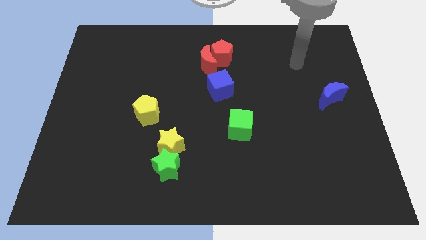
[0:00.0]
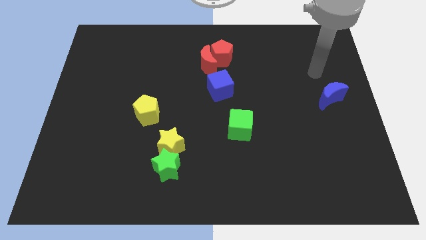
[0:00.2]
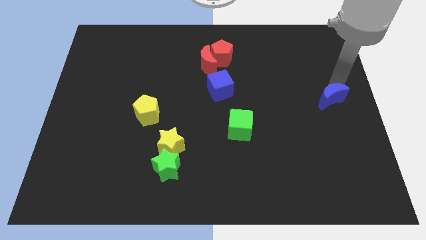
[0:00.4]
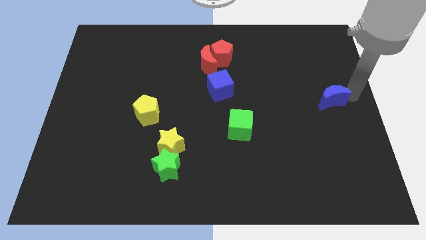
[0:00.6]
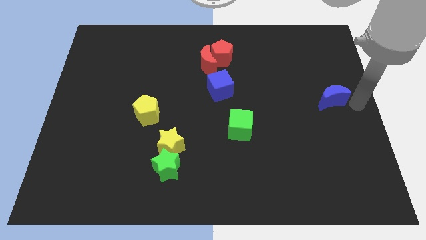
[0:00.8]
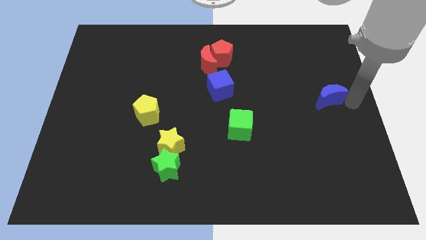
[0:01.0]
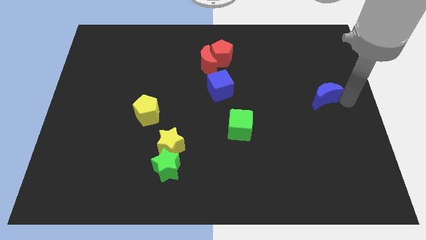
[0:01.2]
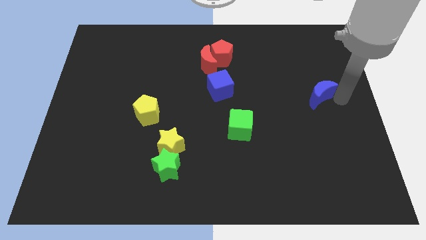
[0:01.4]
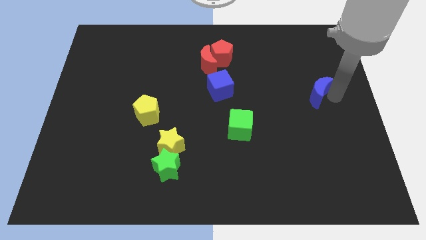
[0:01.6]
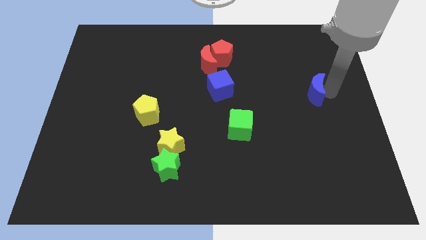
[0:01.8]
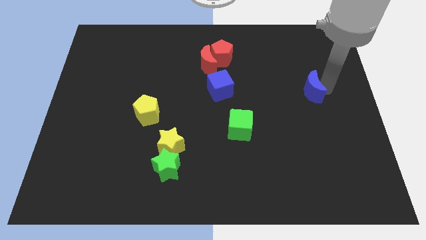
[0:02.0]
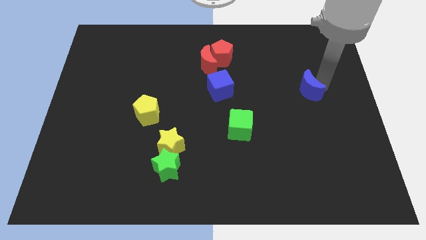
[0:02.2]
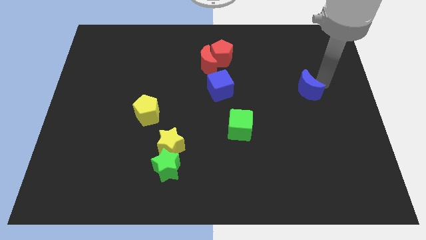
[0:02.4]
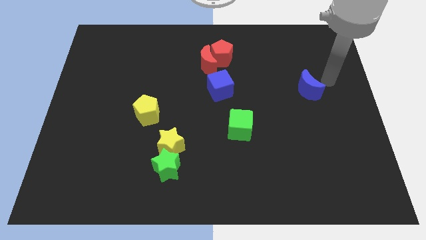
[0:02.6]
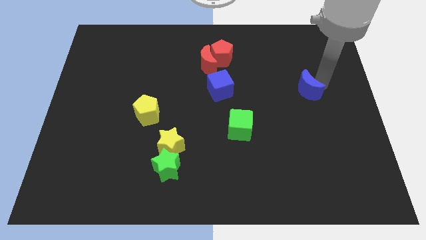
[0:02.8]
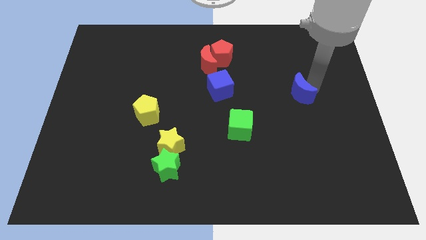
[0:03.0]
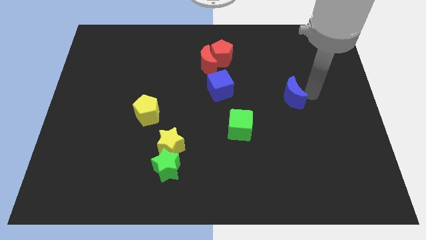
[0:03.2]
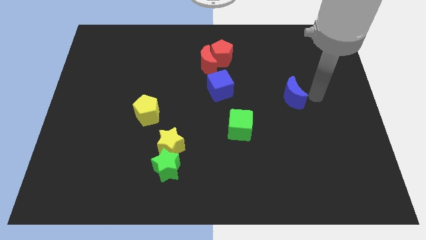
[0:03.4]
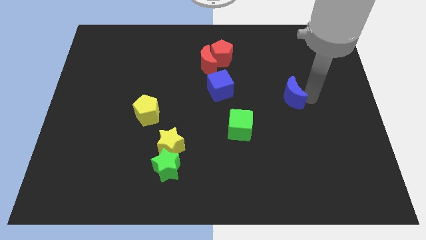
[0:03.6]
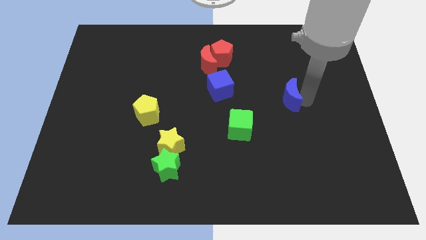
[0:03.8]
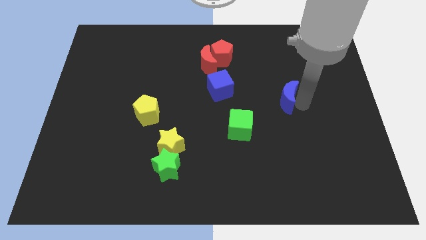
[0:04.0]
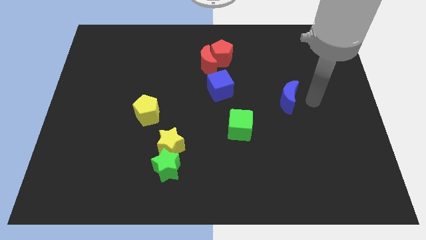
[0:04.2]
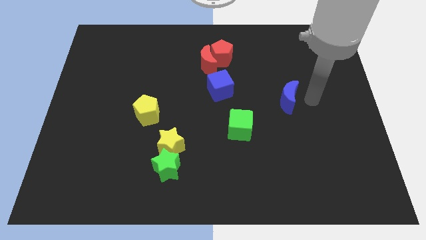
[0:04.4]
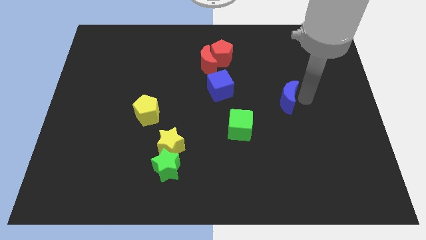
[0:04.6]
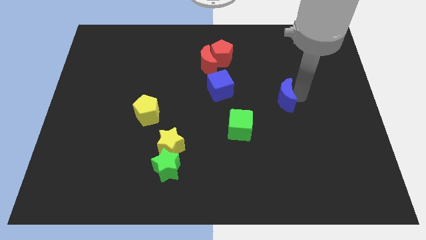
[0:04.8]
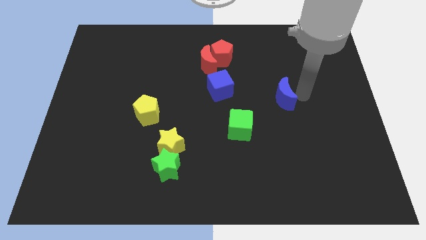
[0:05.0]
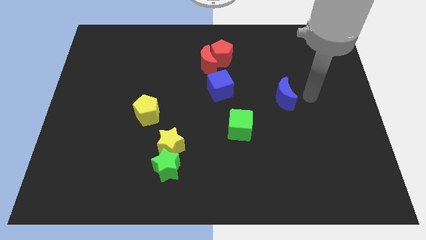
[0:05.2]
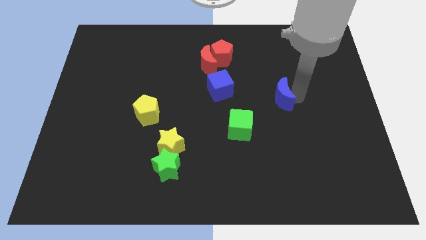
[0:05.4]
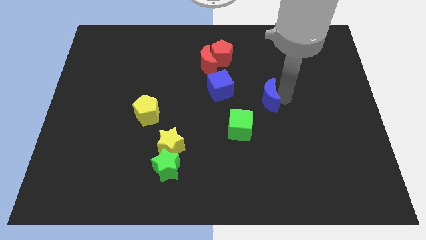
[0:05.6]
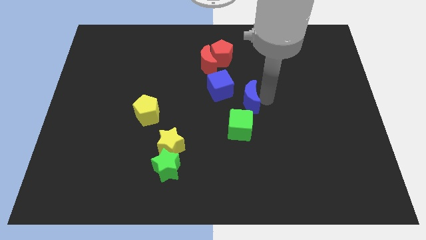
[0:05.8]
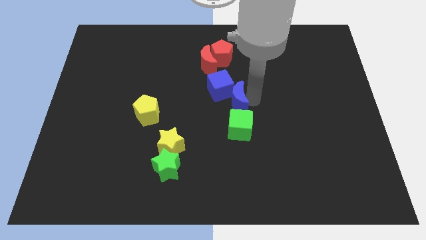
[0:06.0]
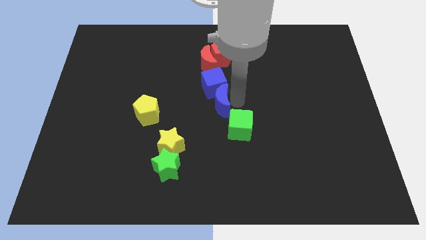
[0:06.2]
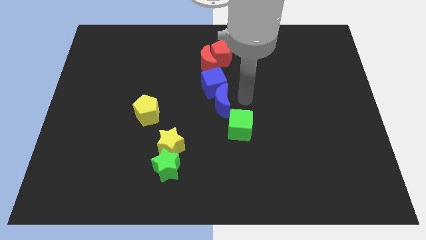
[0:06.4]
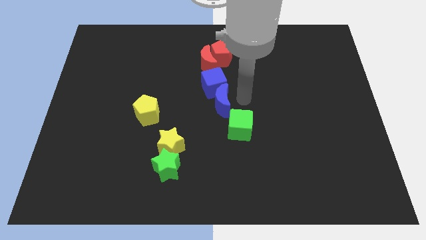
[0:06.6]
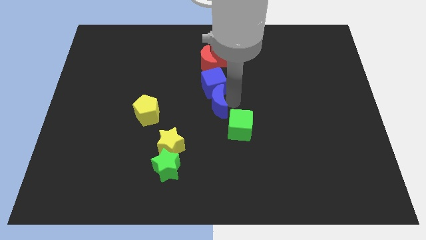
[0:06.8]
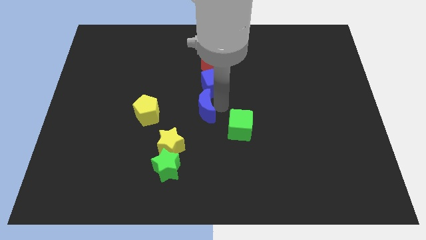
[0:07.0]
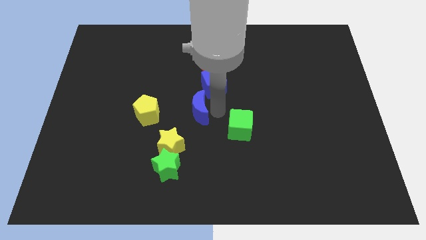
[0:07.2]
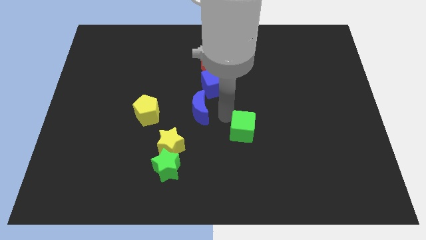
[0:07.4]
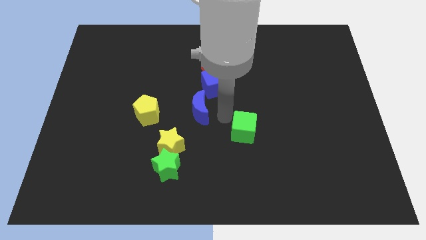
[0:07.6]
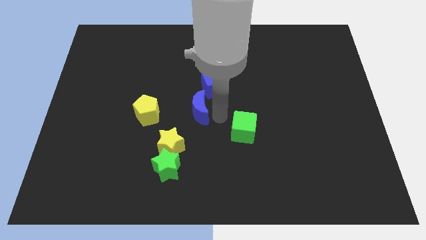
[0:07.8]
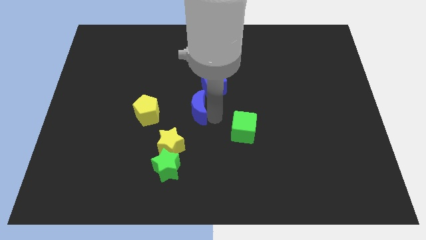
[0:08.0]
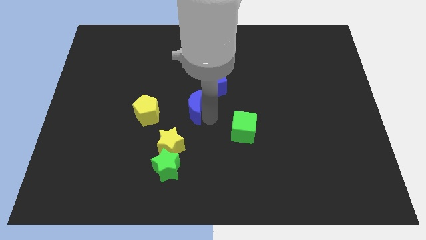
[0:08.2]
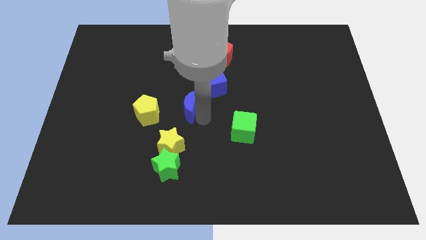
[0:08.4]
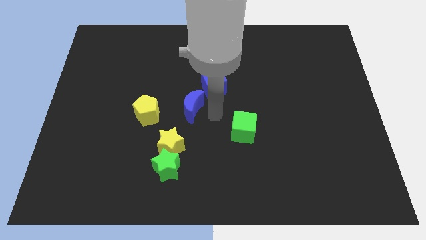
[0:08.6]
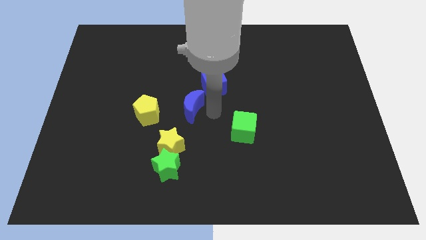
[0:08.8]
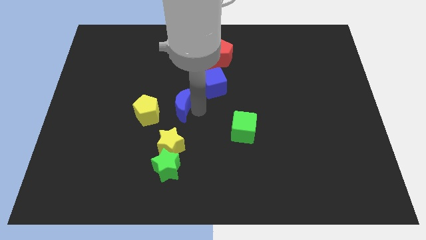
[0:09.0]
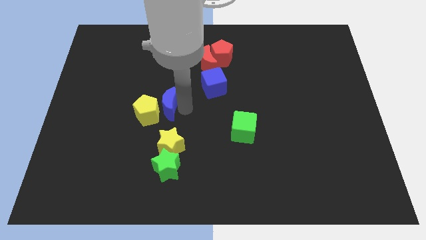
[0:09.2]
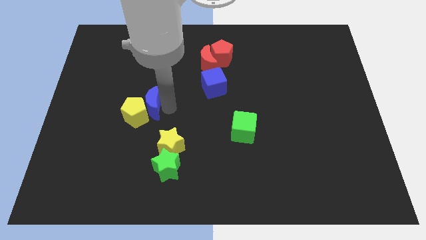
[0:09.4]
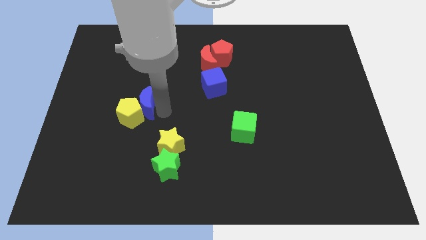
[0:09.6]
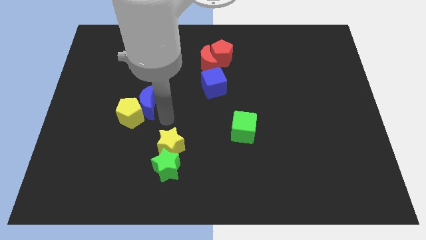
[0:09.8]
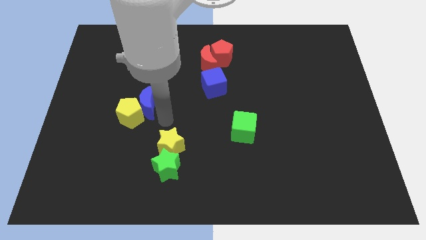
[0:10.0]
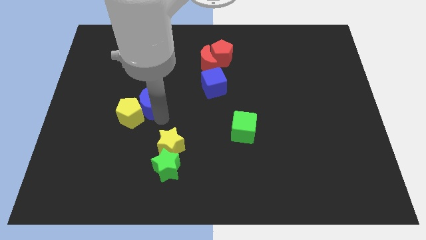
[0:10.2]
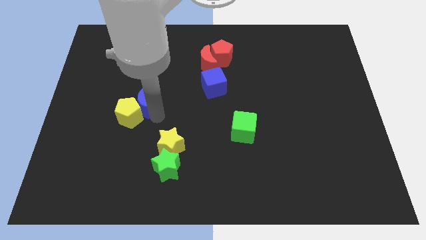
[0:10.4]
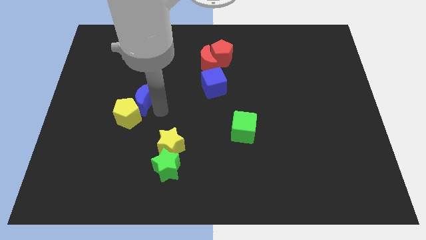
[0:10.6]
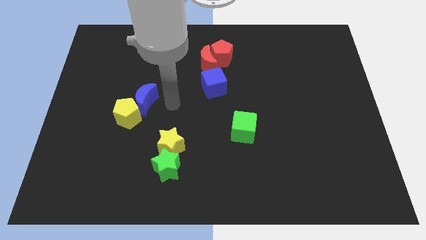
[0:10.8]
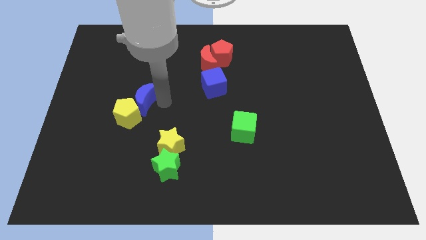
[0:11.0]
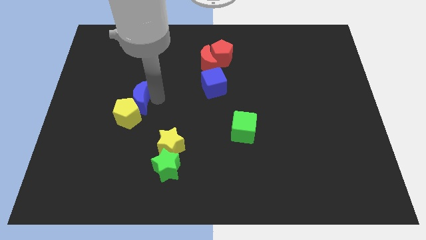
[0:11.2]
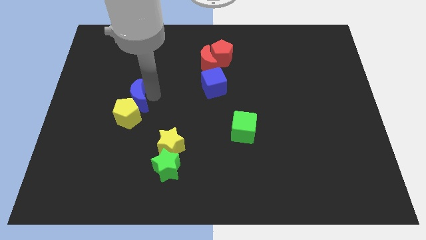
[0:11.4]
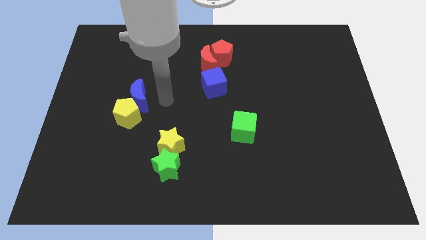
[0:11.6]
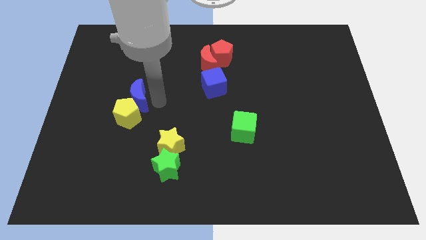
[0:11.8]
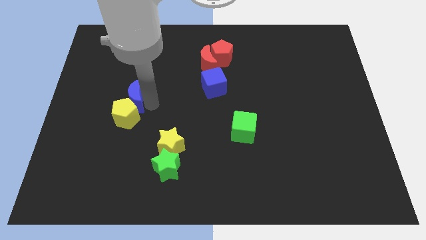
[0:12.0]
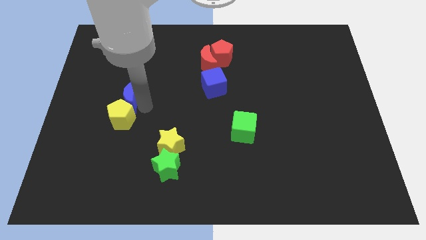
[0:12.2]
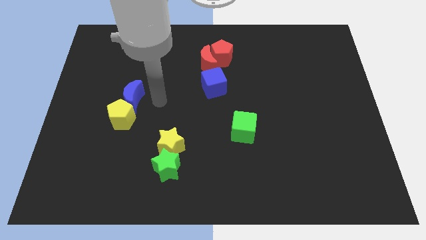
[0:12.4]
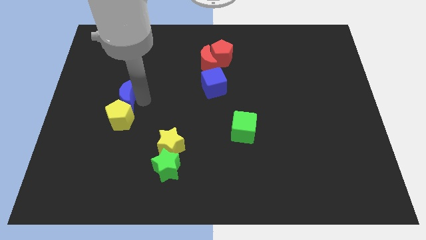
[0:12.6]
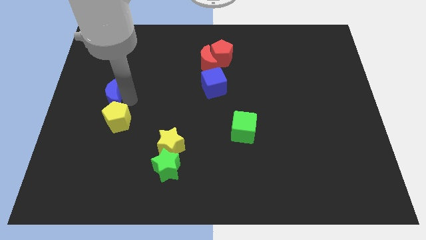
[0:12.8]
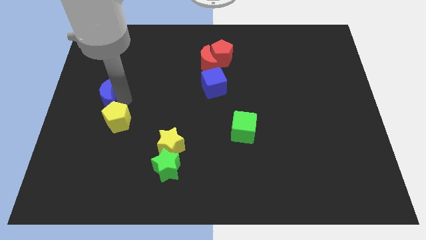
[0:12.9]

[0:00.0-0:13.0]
put the blue moon to the left side of the board
